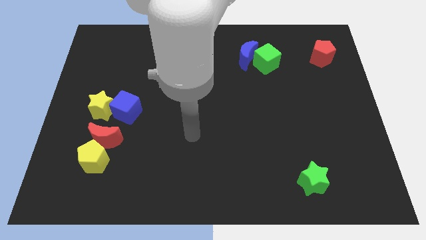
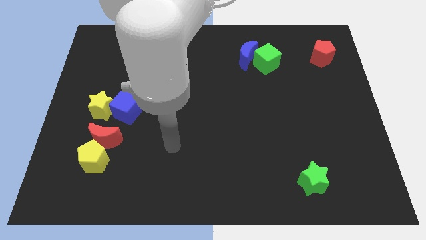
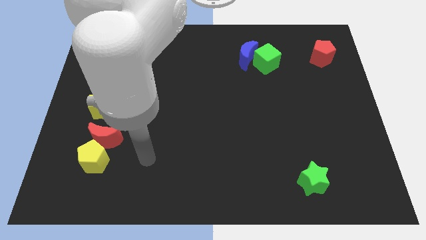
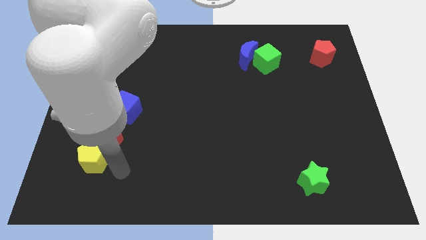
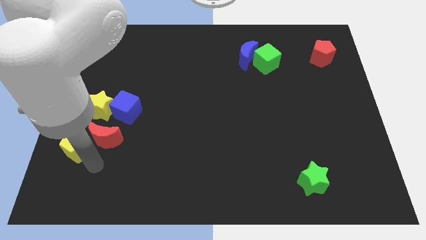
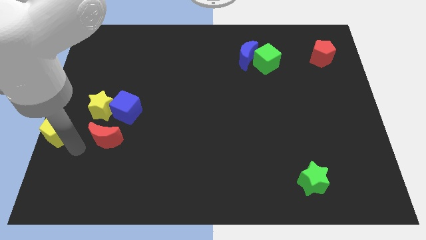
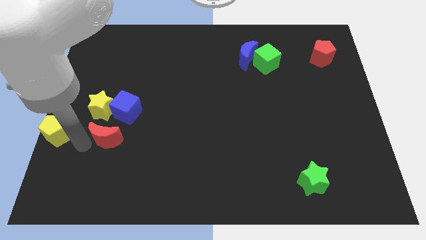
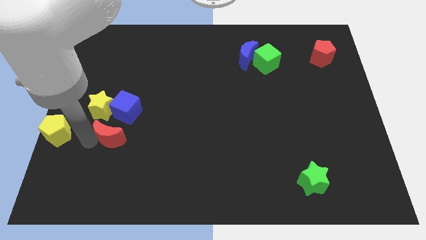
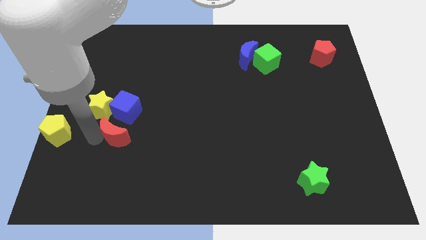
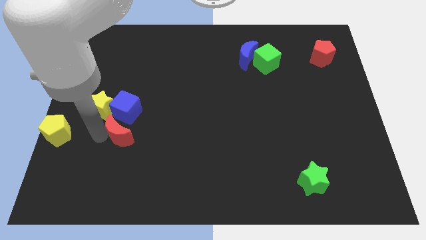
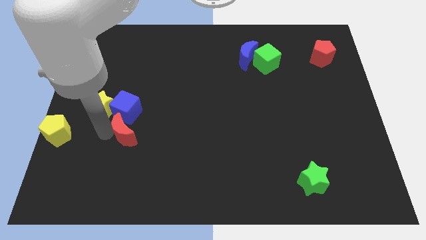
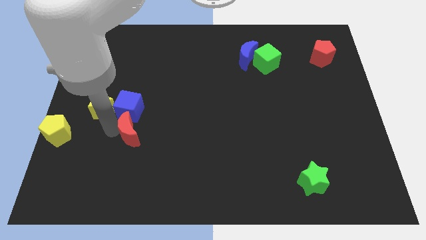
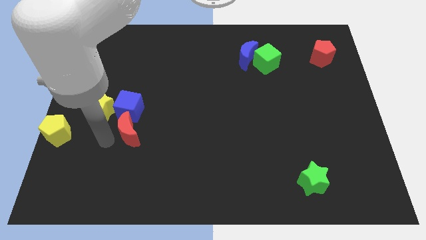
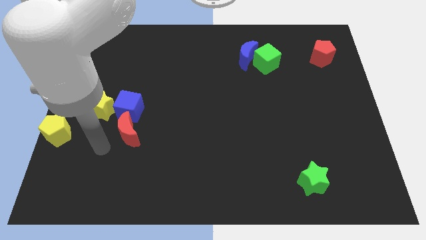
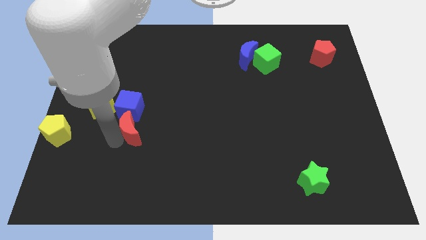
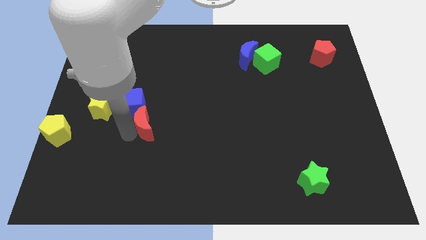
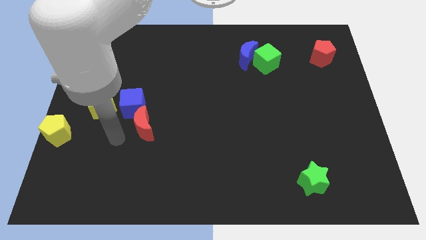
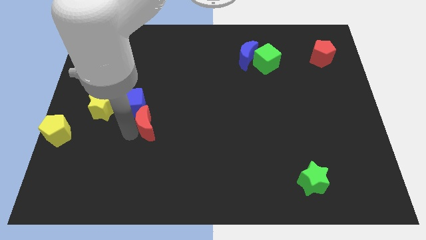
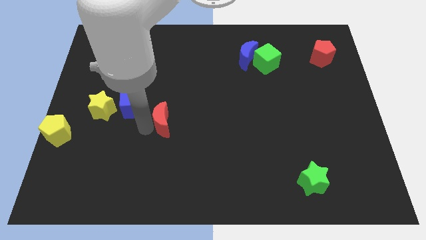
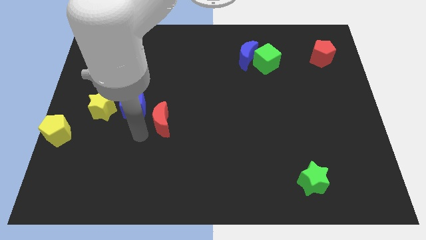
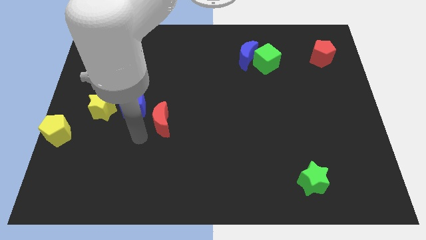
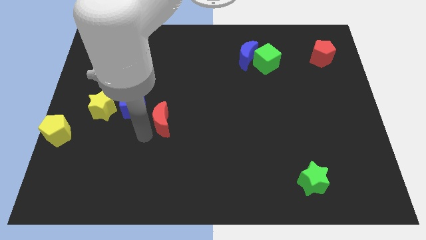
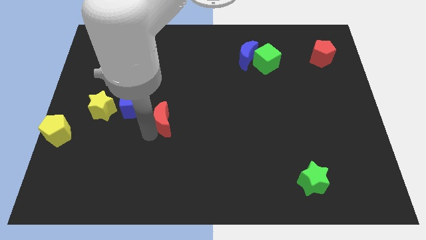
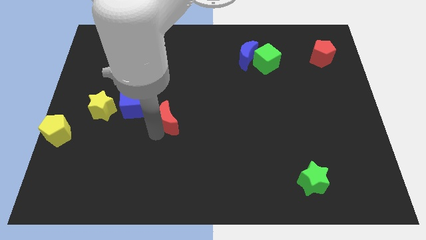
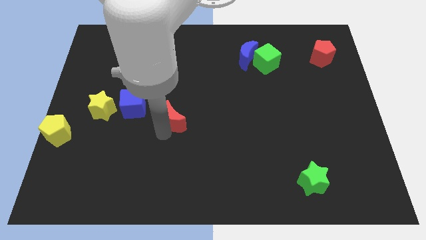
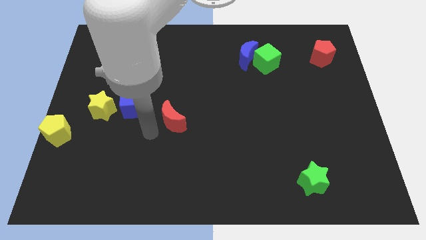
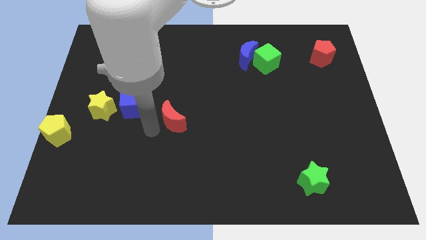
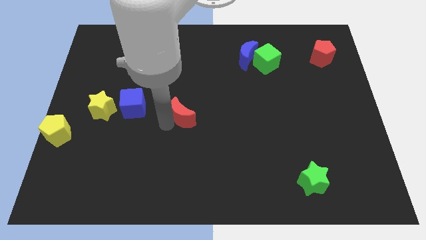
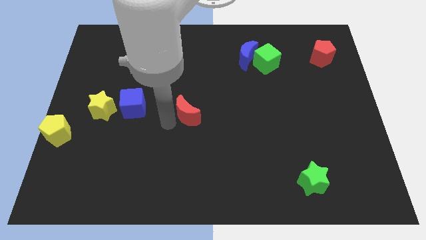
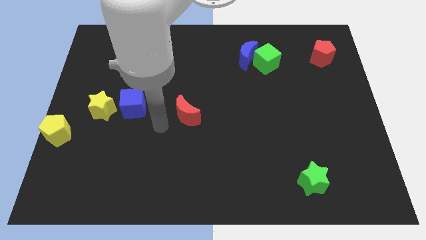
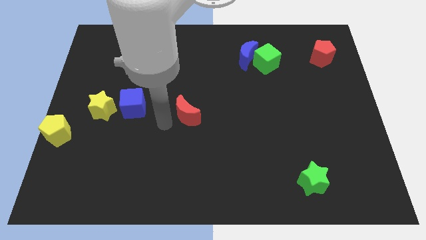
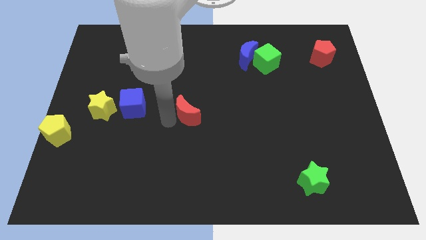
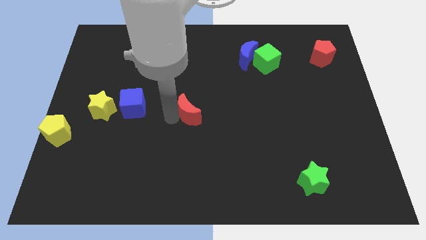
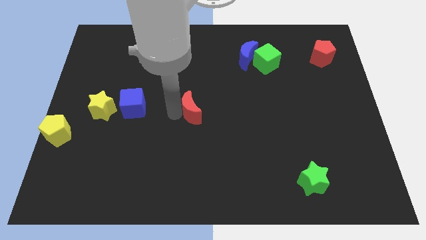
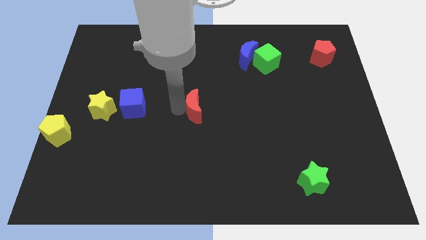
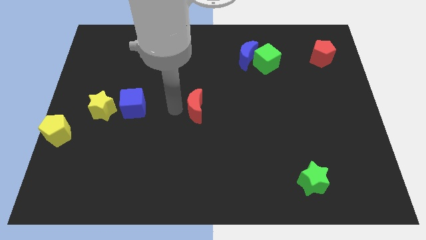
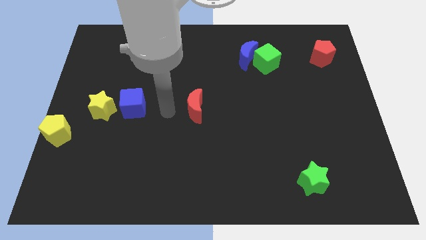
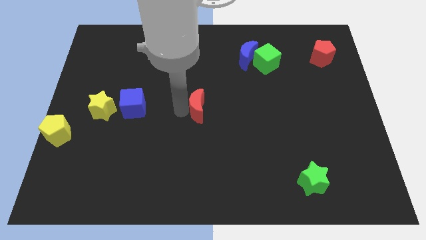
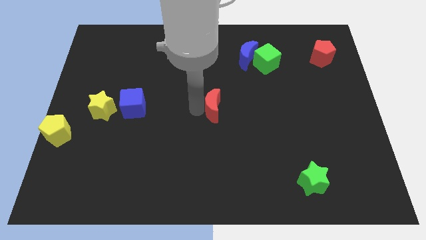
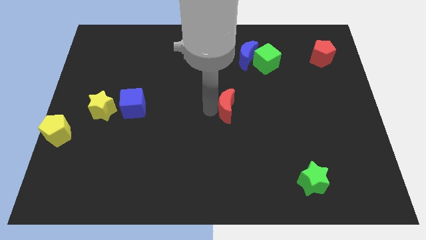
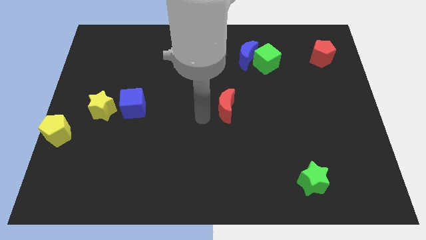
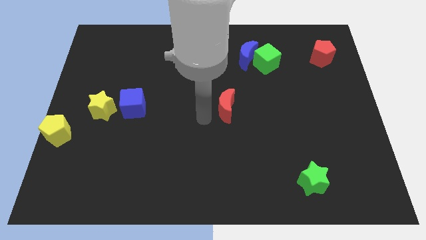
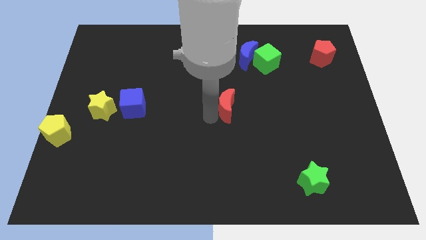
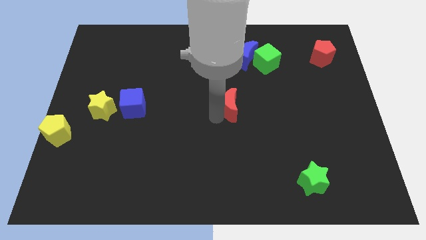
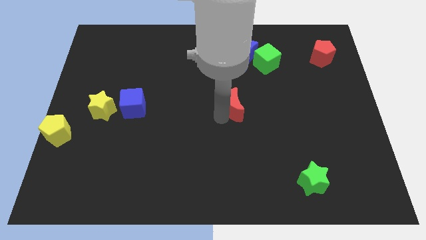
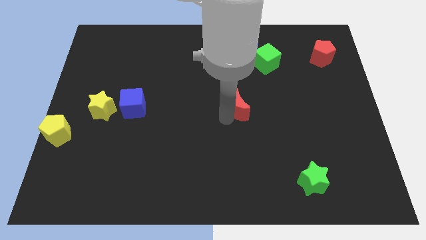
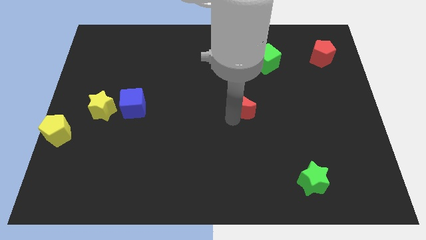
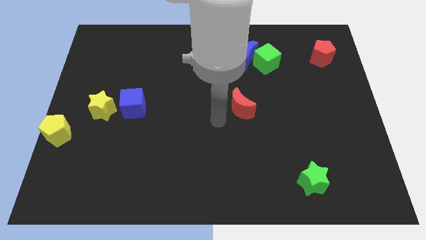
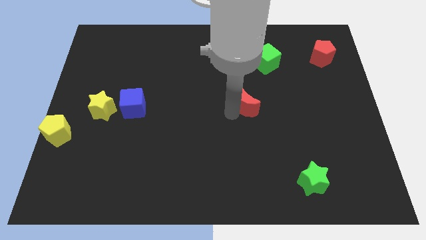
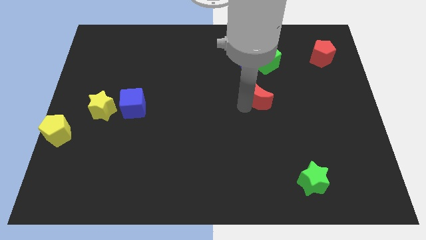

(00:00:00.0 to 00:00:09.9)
put the red moon to the bottom of the green cube

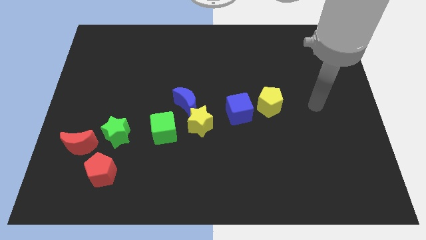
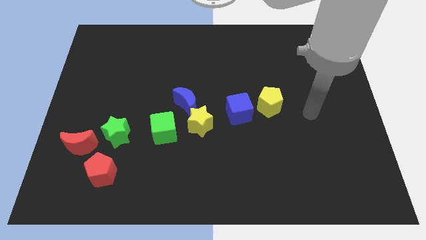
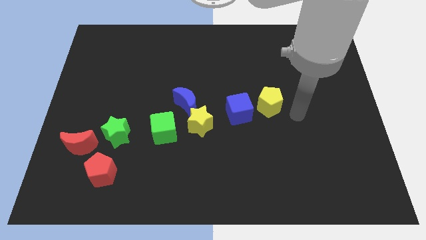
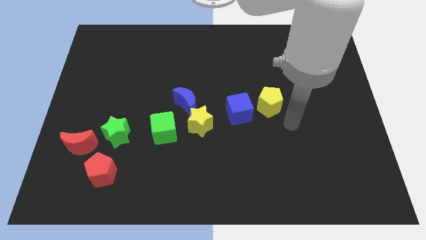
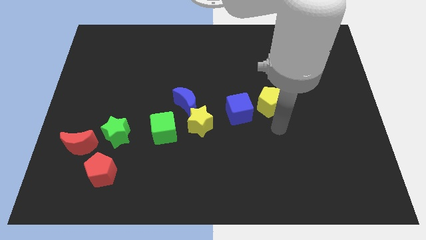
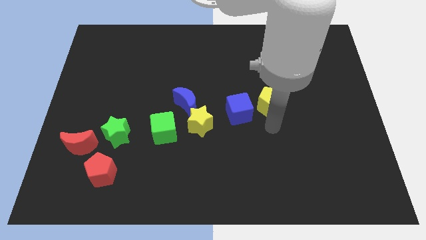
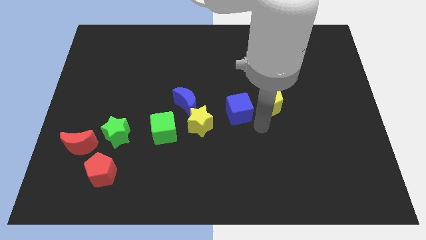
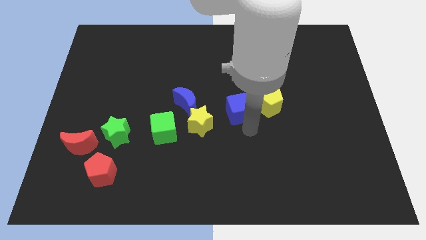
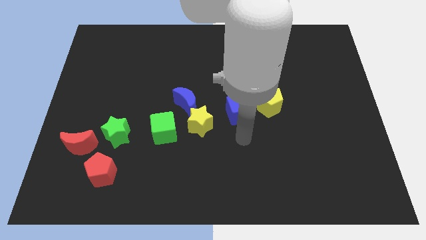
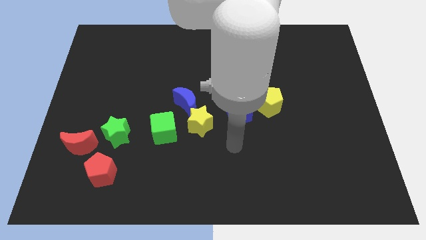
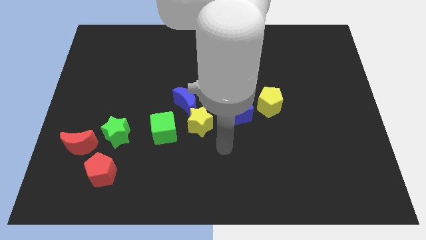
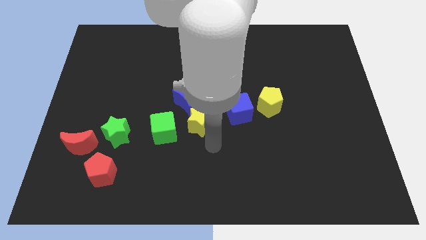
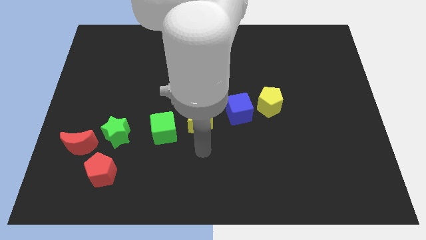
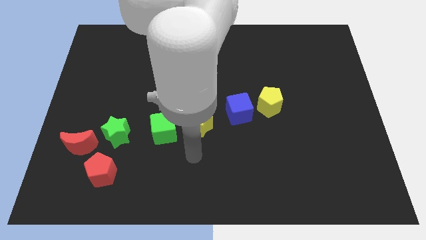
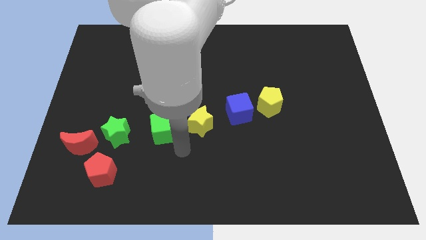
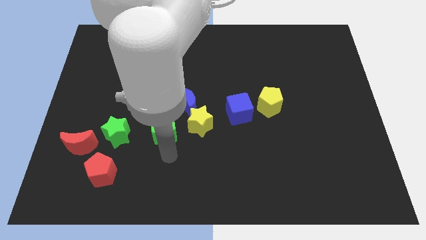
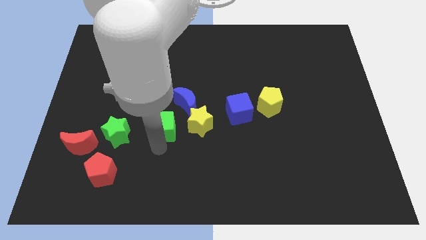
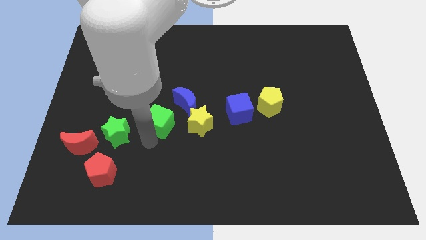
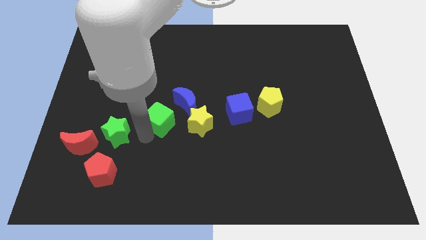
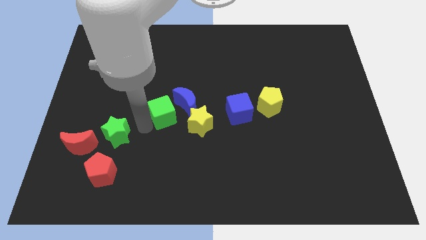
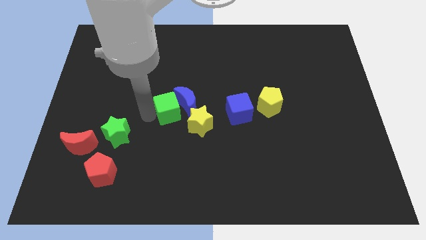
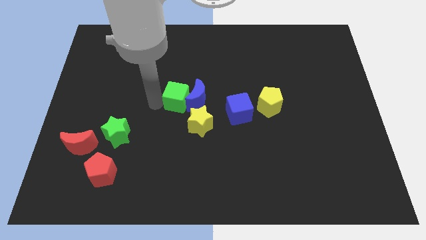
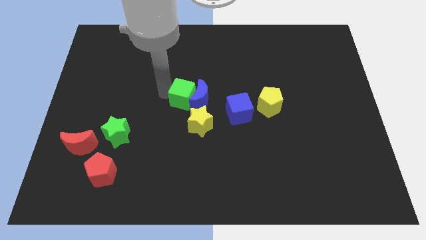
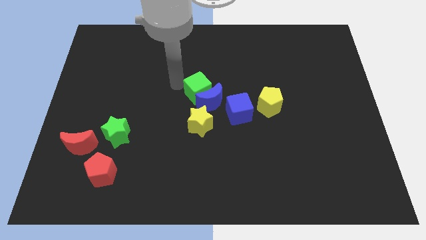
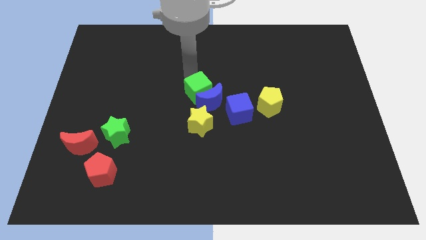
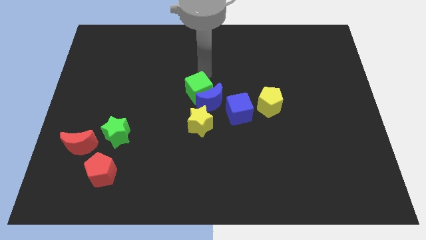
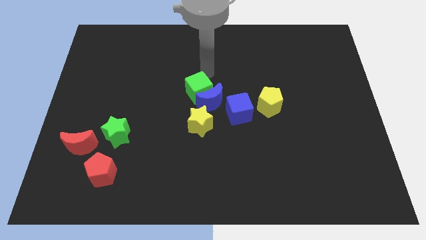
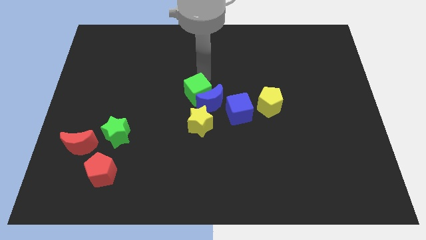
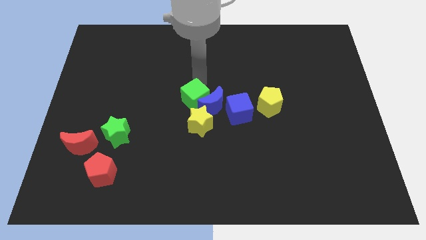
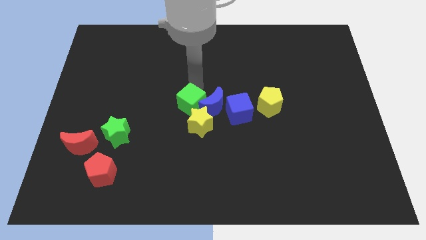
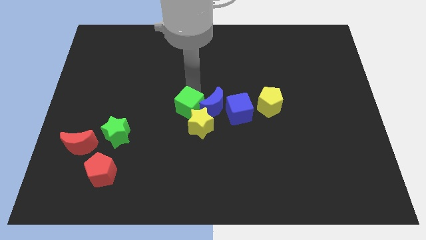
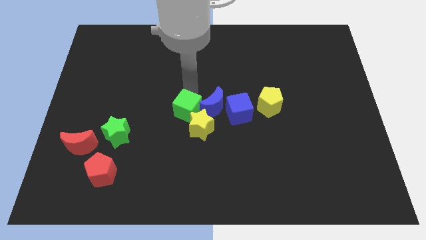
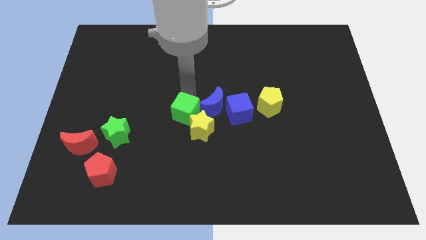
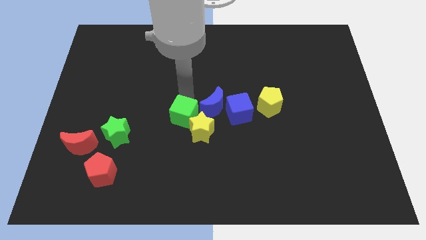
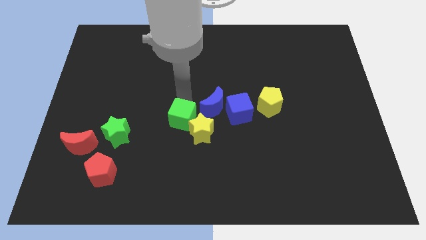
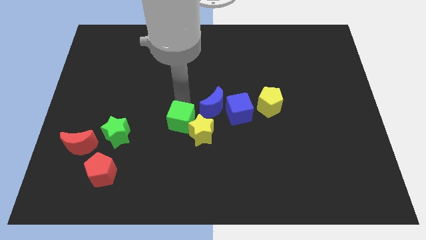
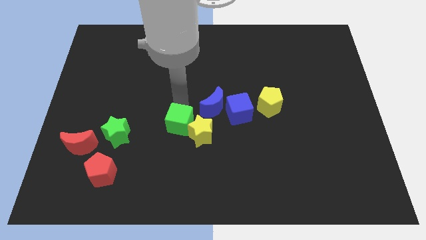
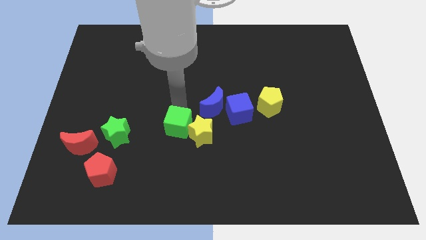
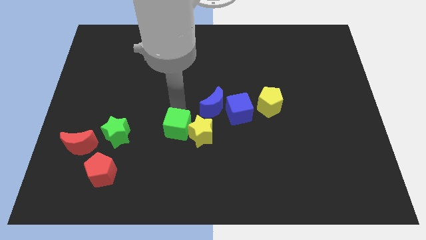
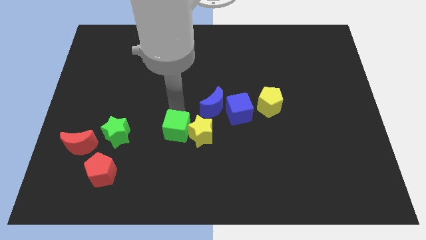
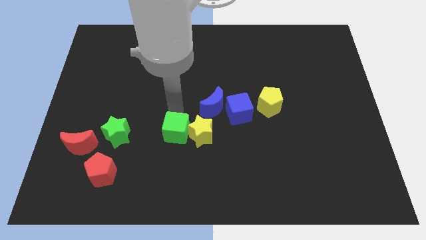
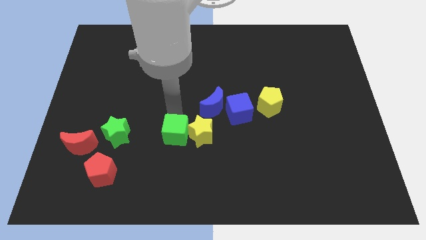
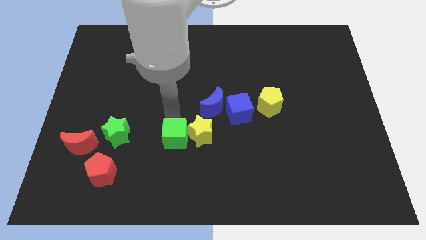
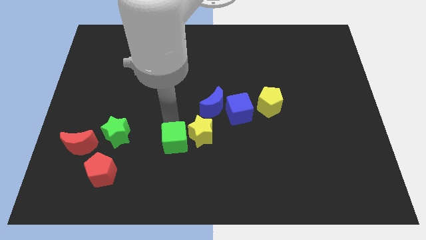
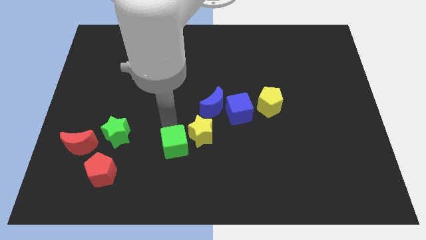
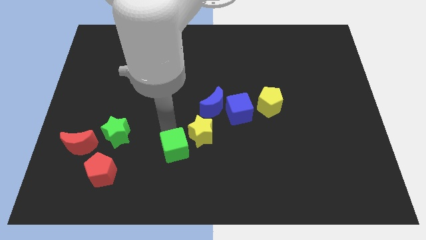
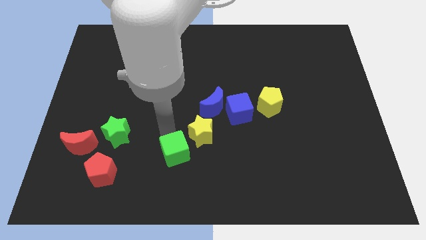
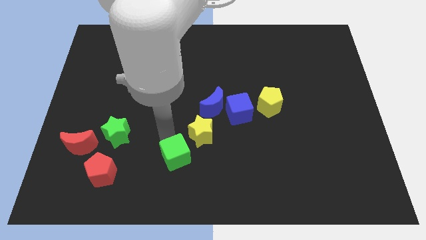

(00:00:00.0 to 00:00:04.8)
move the green cube below the yellow star
